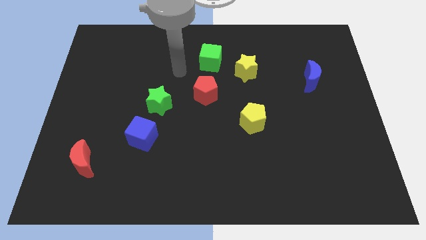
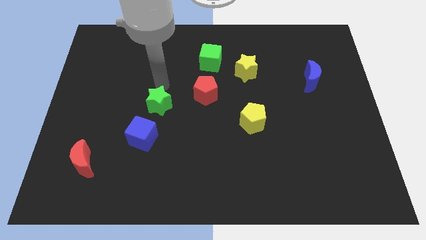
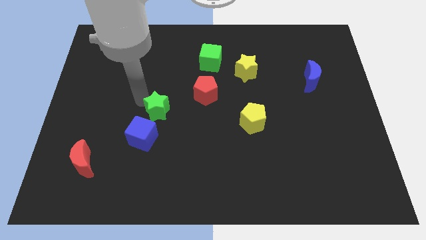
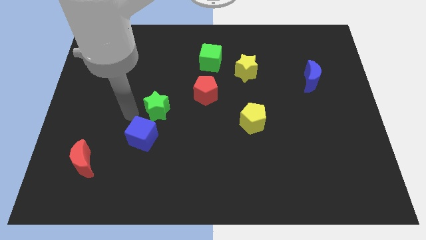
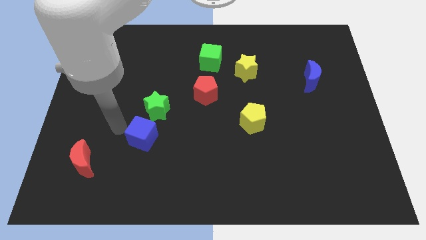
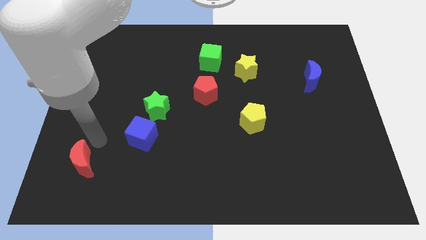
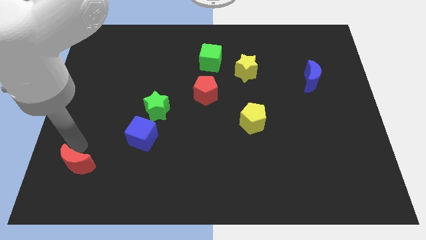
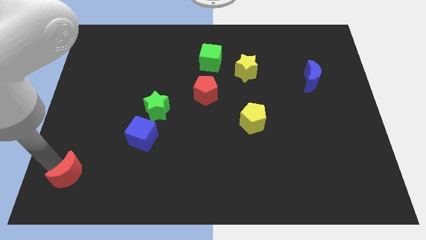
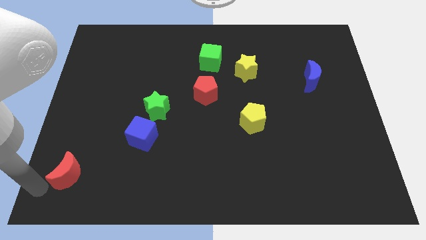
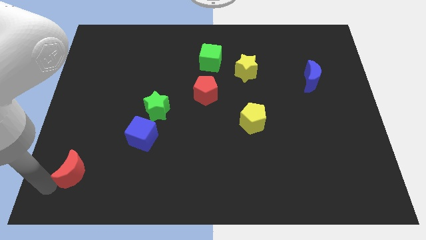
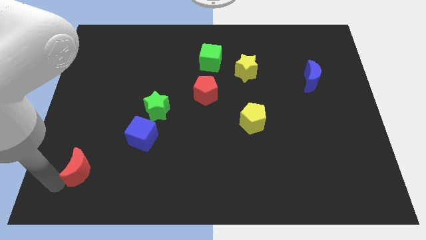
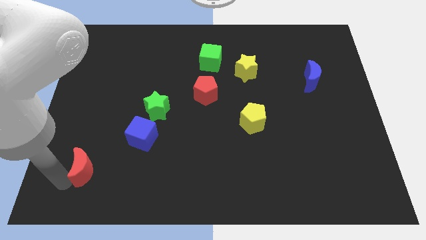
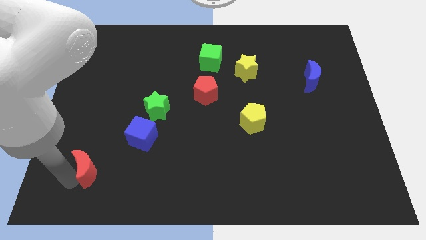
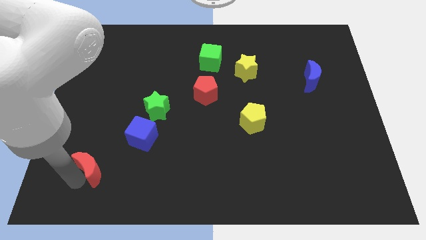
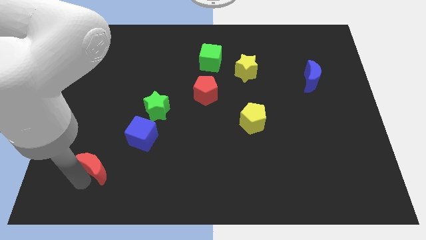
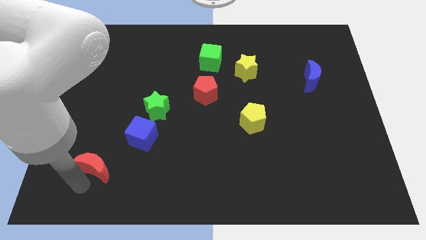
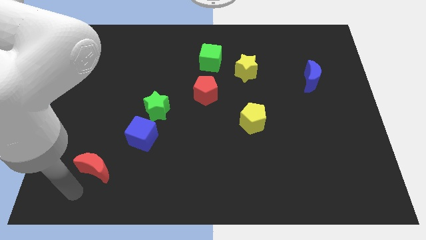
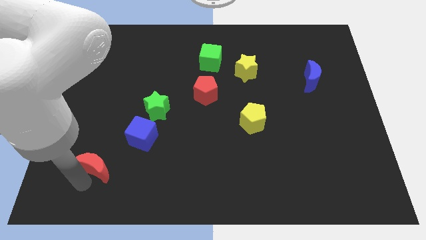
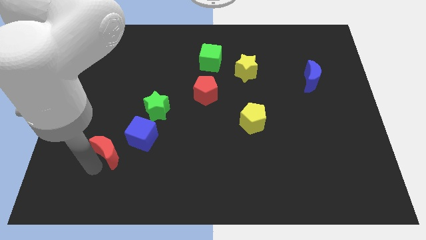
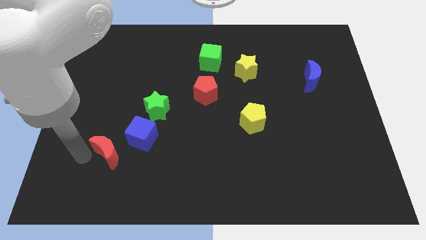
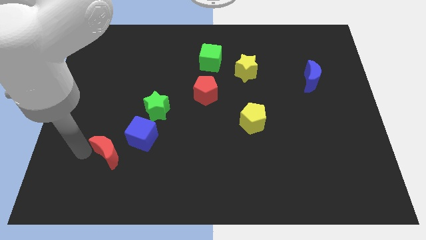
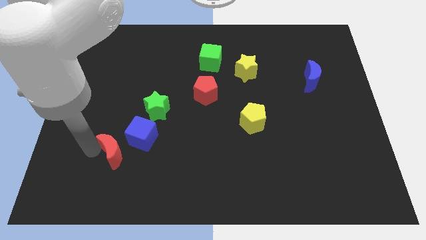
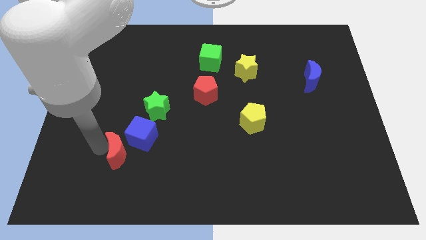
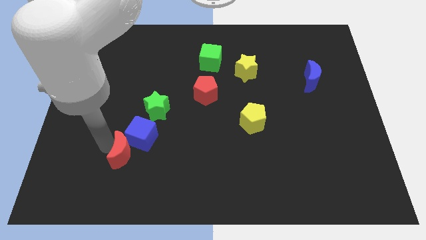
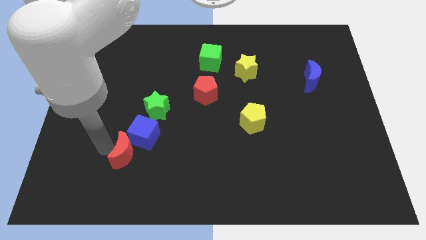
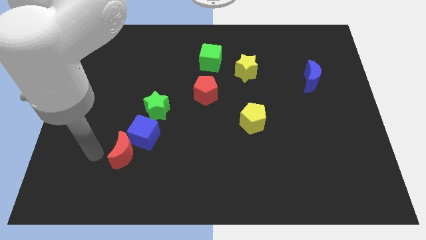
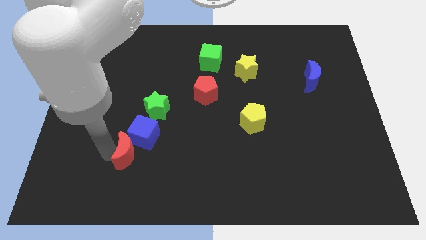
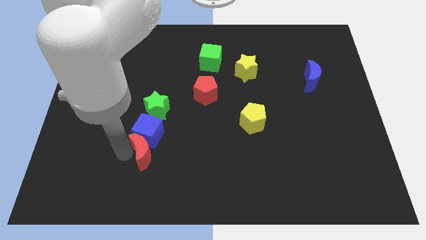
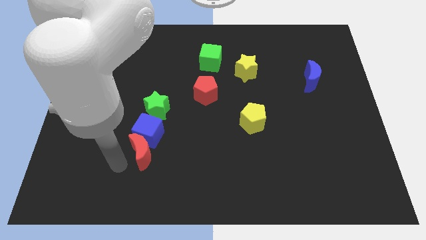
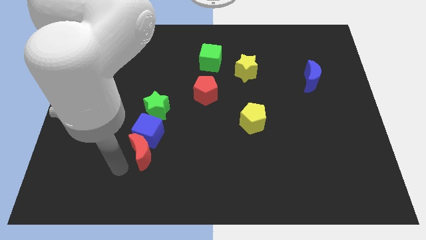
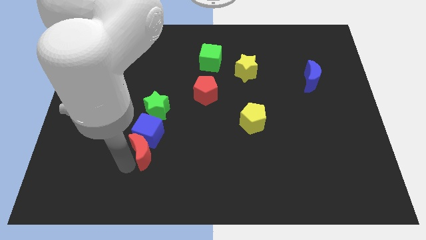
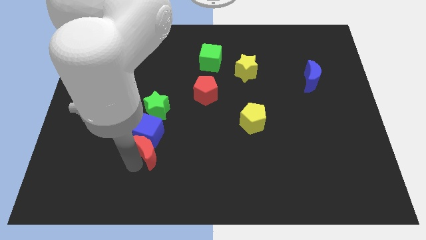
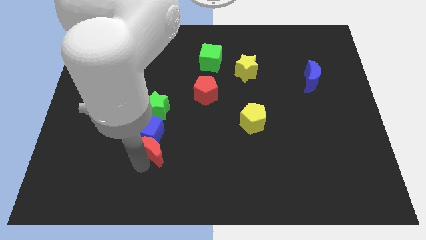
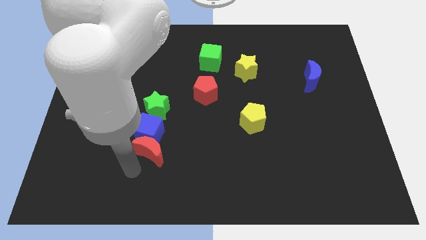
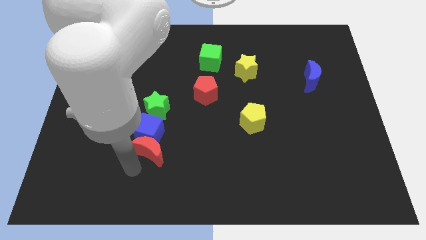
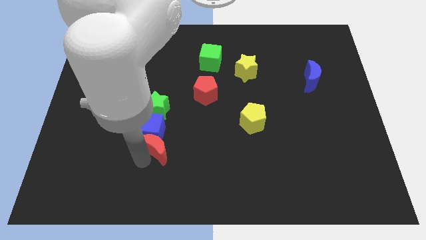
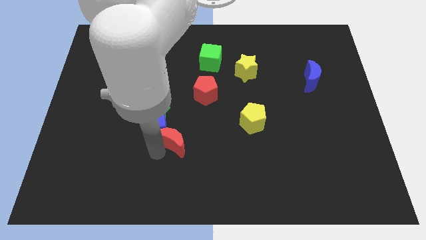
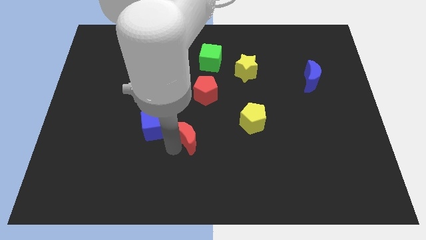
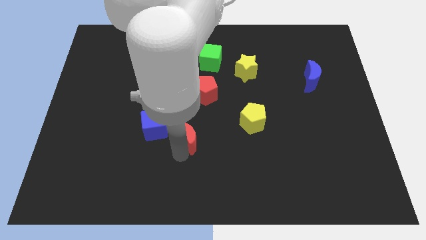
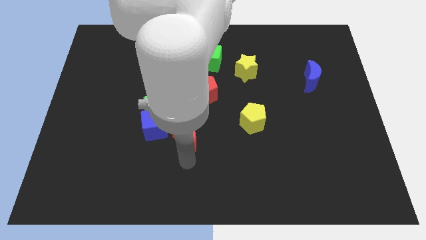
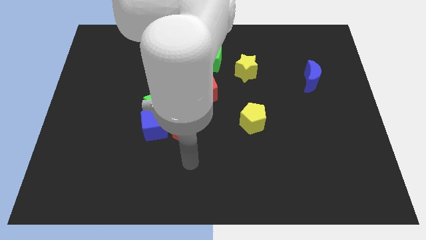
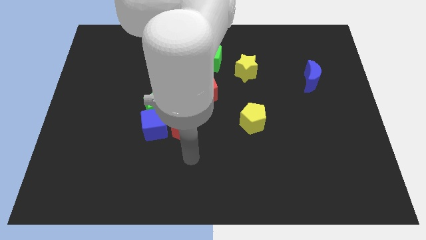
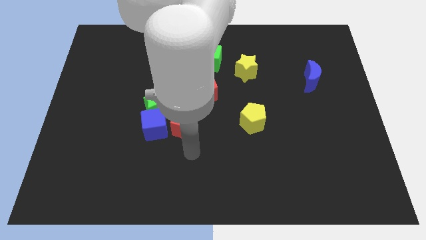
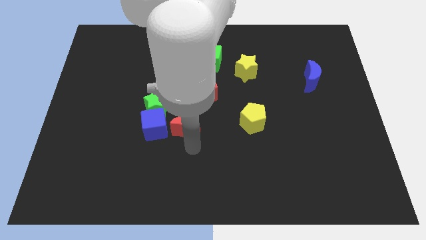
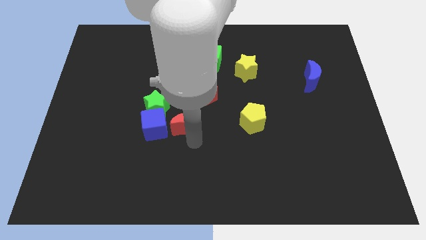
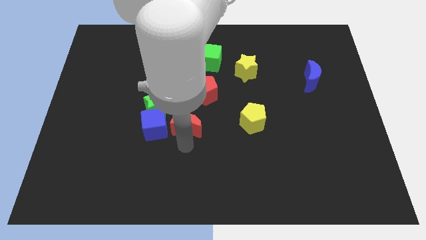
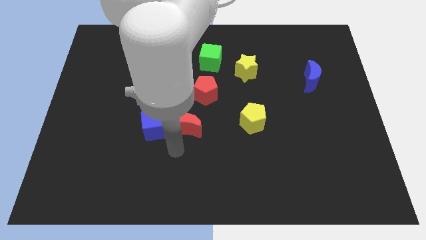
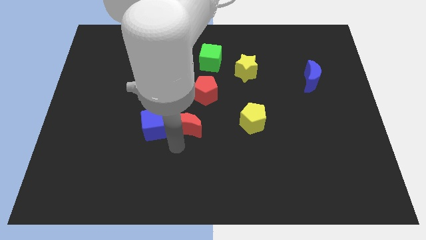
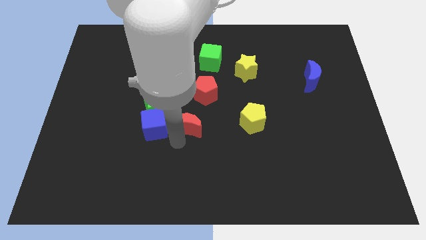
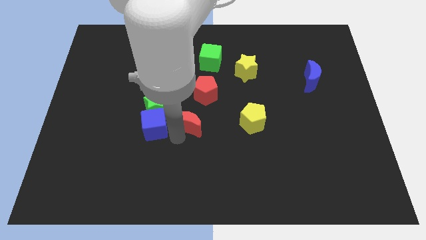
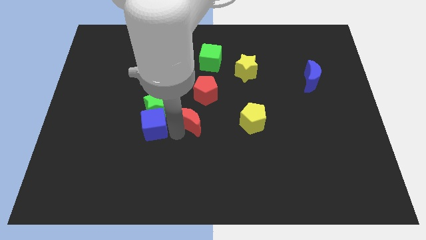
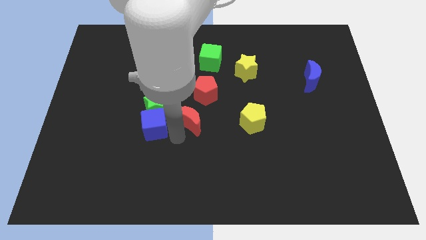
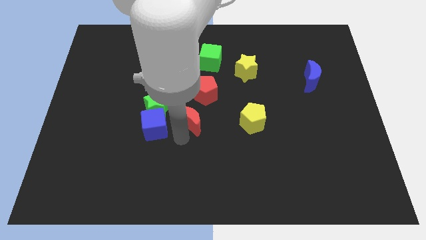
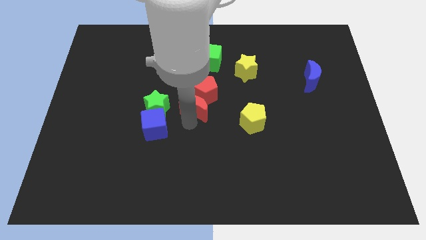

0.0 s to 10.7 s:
push the red moon towards the red pentagon

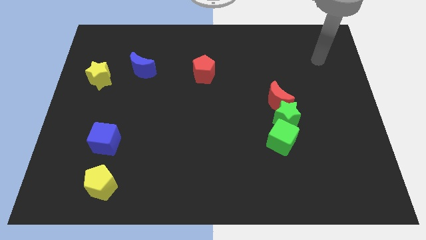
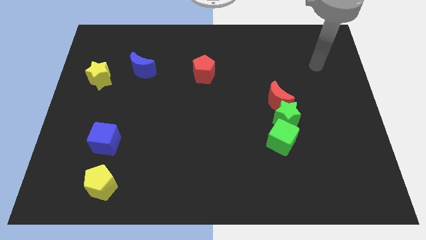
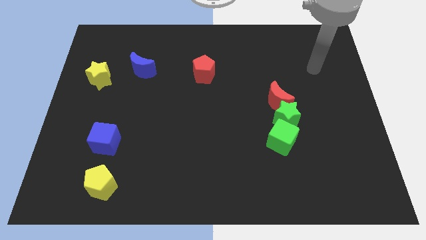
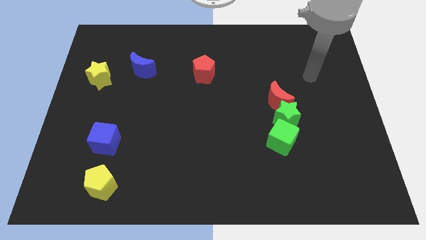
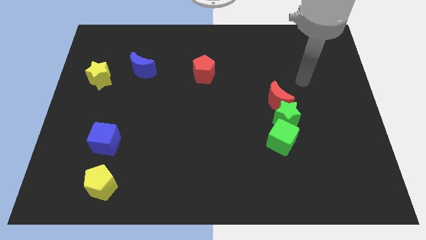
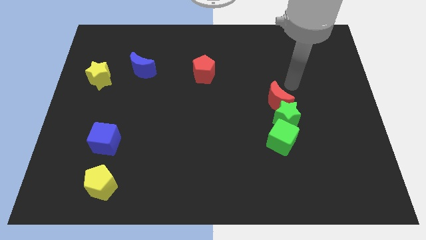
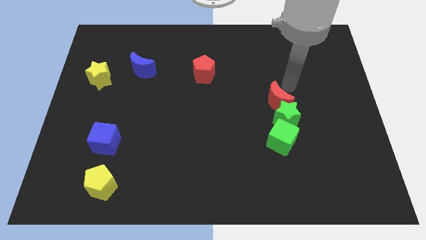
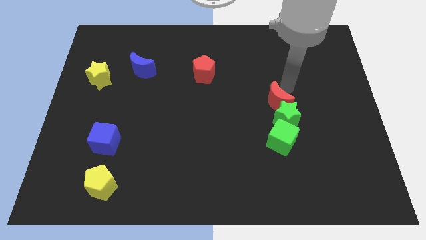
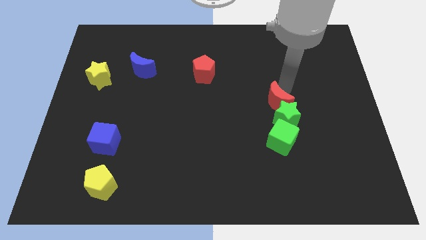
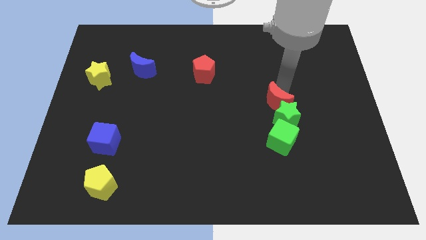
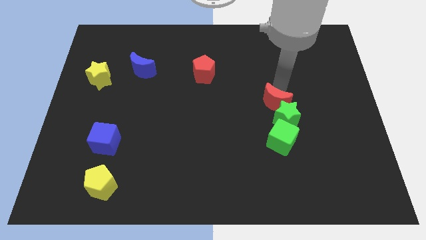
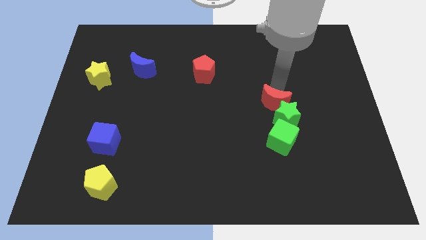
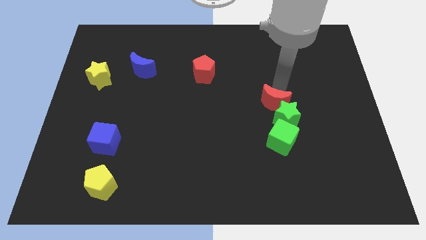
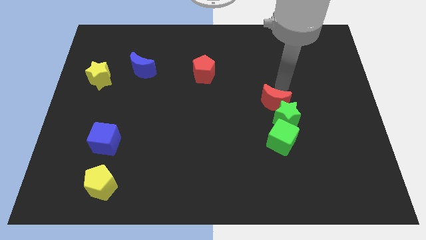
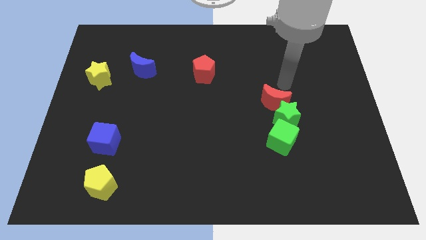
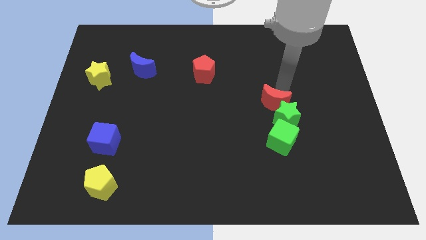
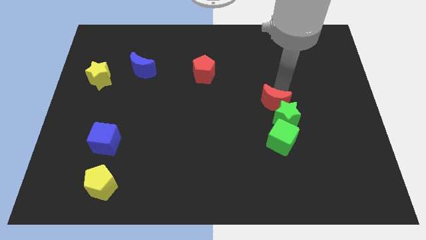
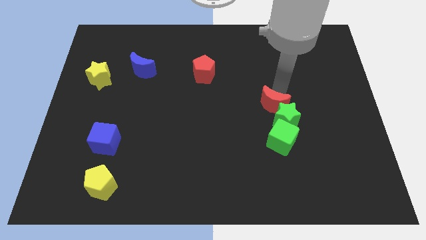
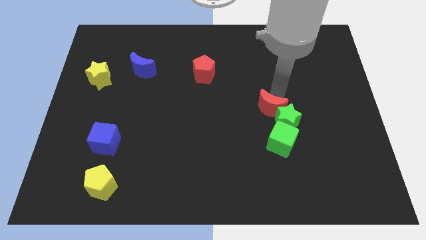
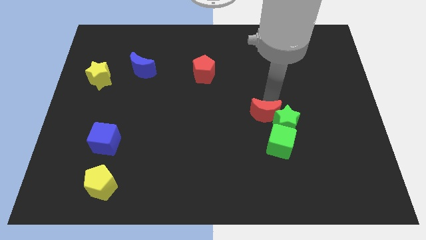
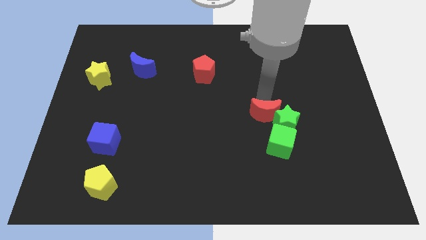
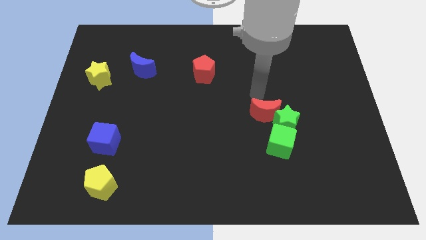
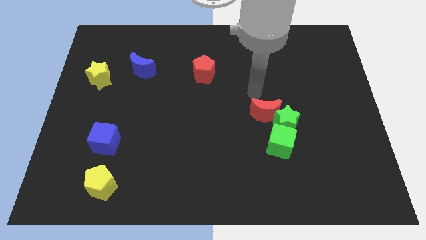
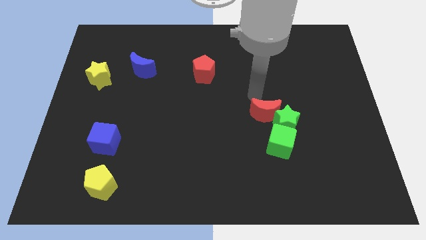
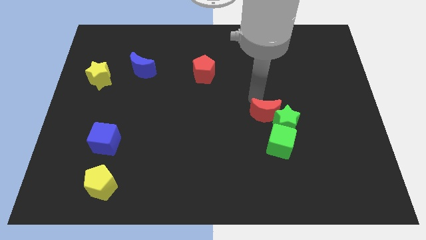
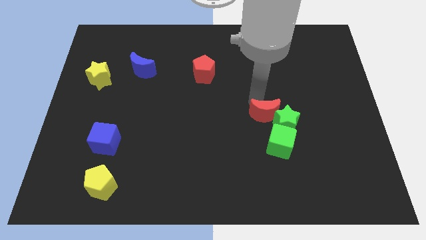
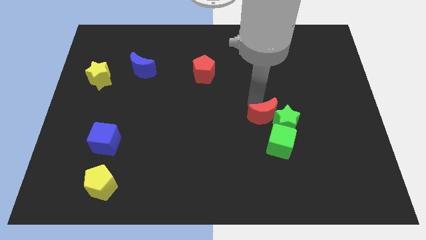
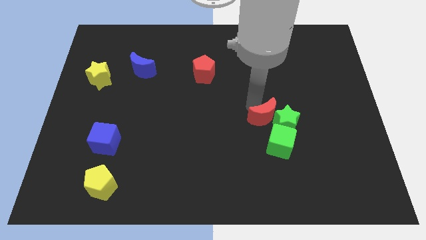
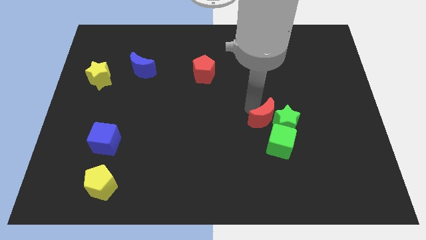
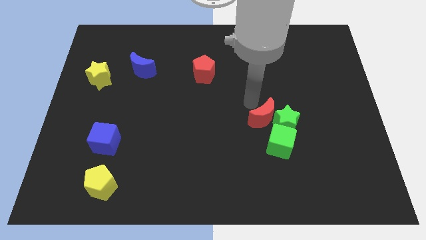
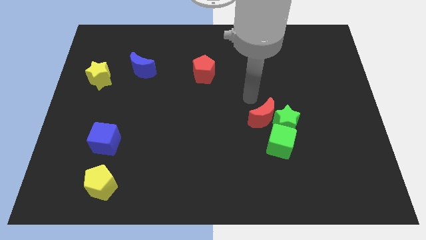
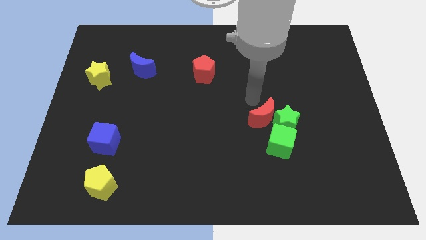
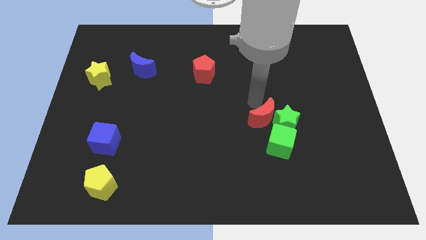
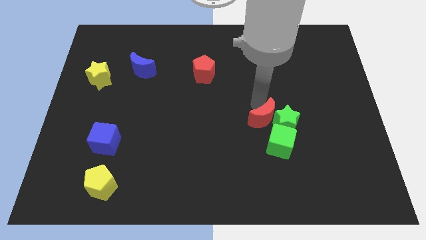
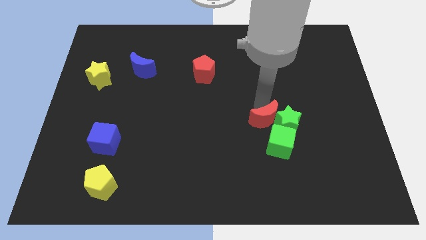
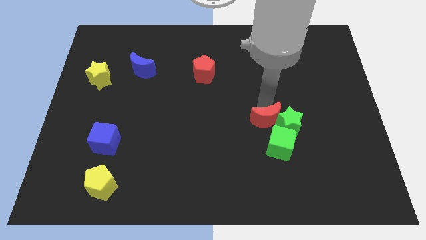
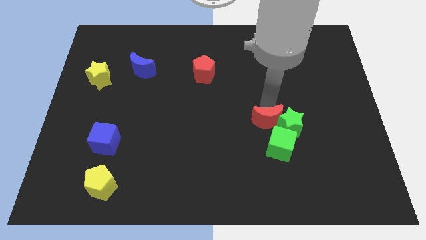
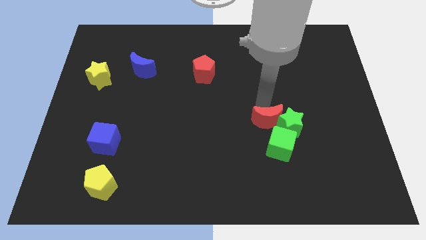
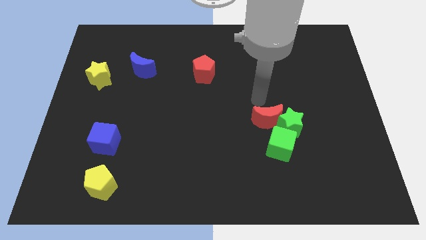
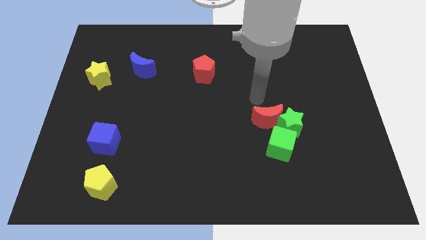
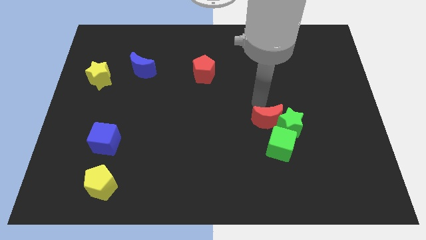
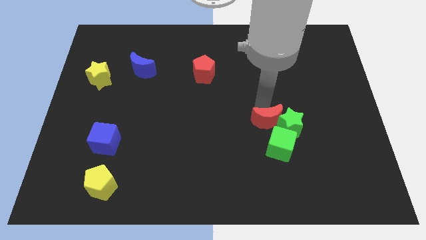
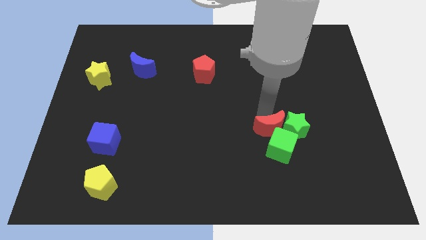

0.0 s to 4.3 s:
put the red moon next to the green cube
